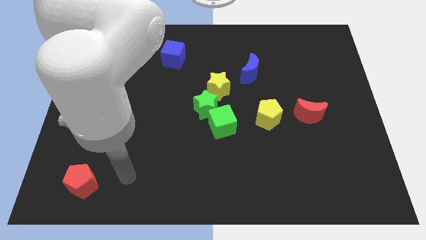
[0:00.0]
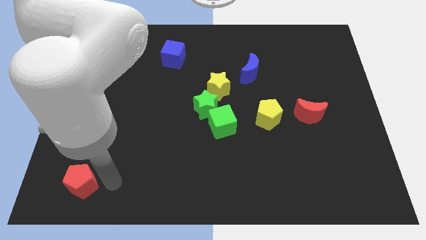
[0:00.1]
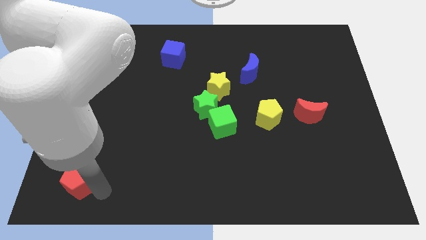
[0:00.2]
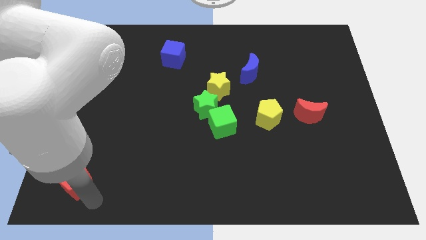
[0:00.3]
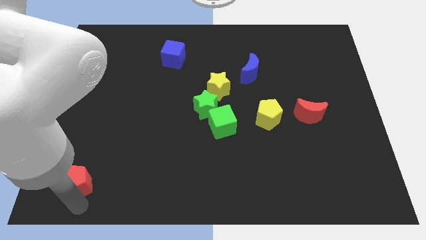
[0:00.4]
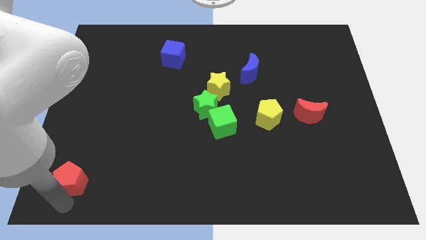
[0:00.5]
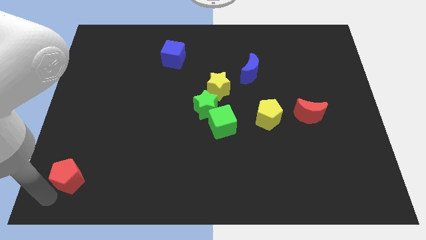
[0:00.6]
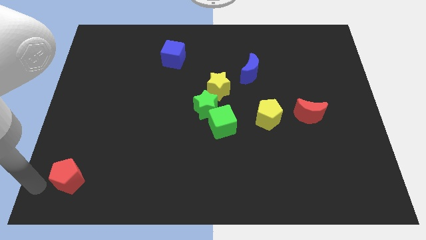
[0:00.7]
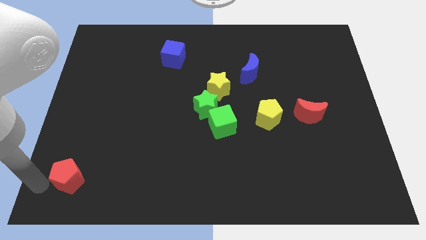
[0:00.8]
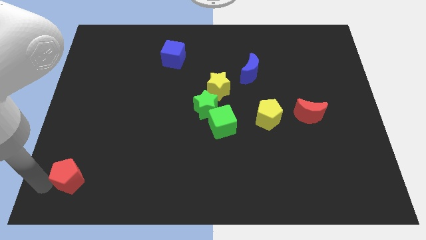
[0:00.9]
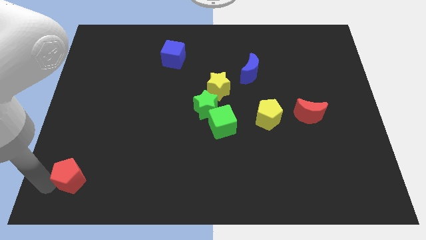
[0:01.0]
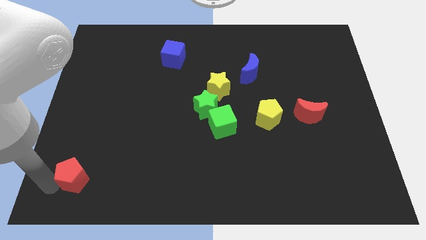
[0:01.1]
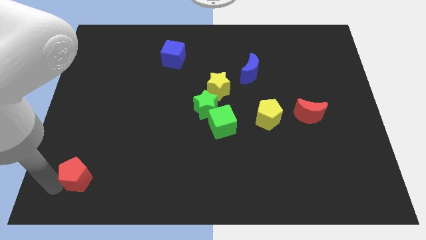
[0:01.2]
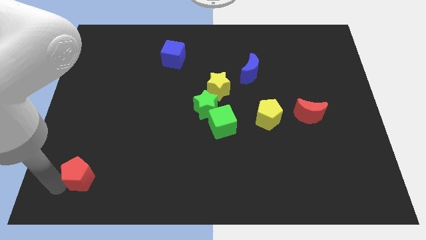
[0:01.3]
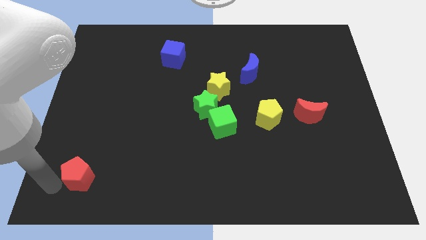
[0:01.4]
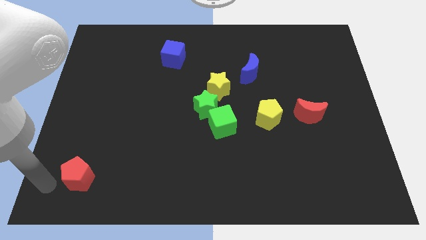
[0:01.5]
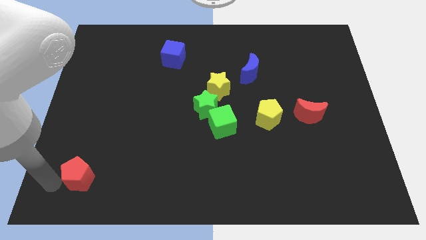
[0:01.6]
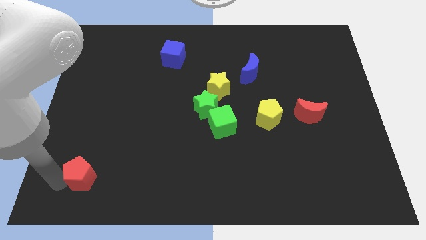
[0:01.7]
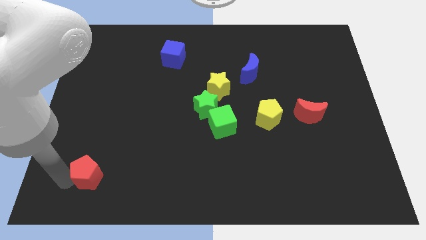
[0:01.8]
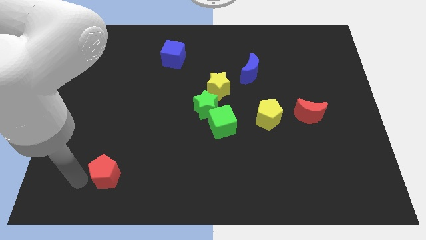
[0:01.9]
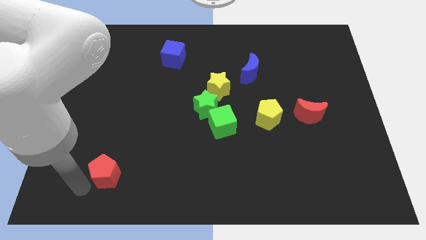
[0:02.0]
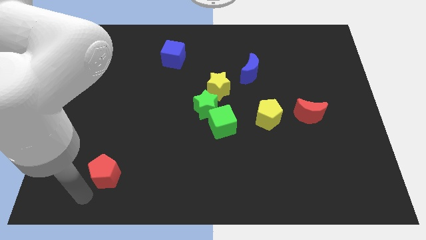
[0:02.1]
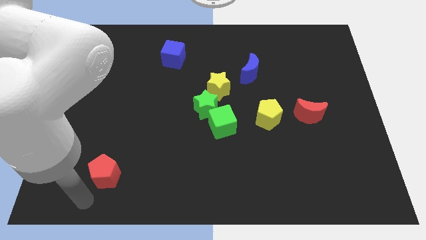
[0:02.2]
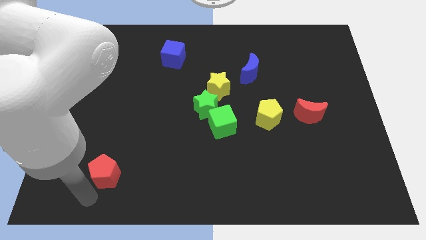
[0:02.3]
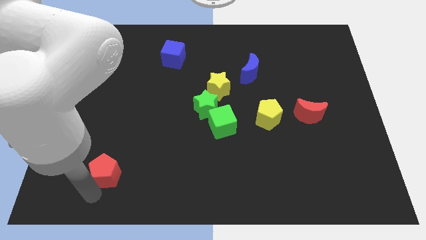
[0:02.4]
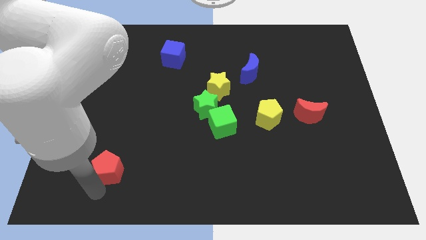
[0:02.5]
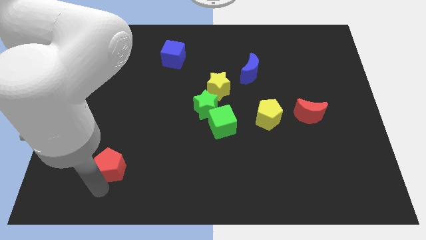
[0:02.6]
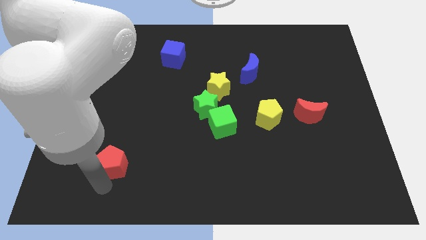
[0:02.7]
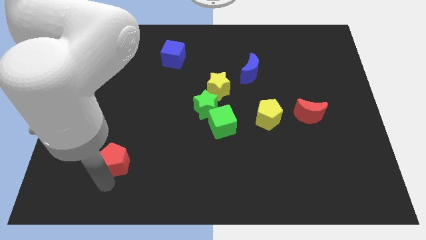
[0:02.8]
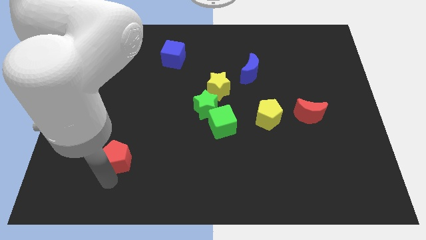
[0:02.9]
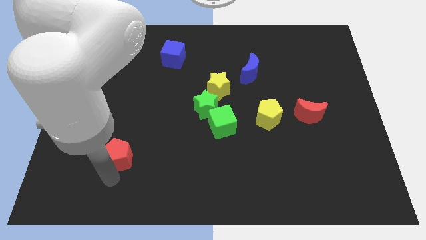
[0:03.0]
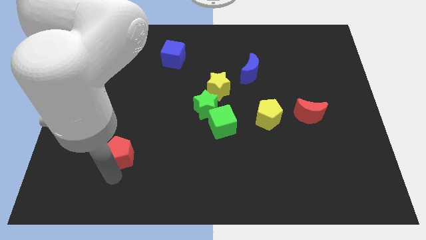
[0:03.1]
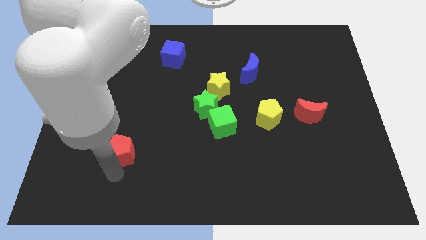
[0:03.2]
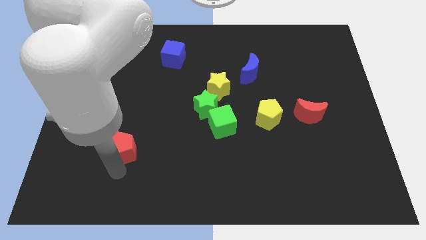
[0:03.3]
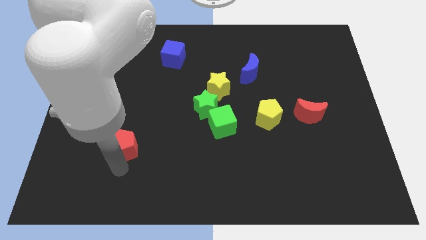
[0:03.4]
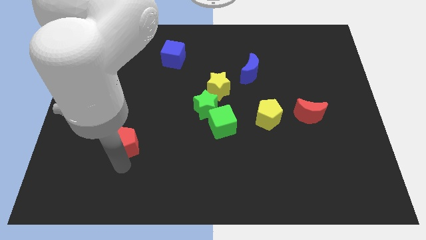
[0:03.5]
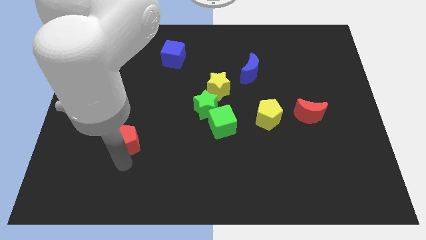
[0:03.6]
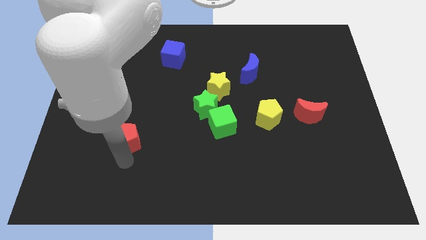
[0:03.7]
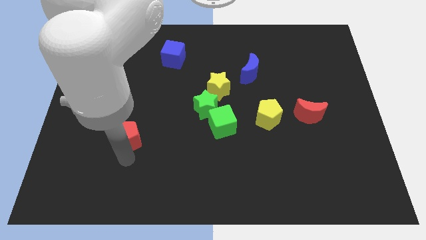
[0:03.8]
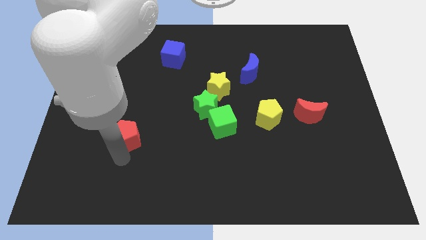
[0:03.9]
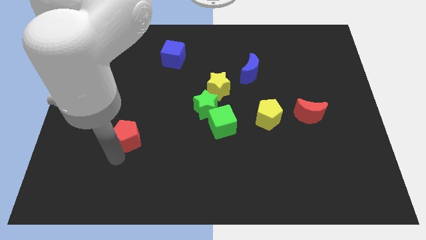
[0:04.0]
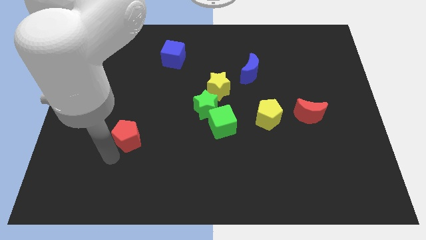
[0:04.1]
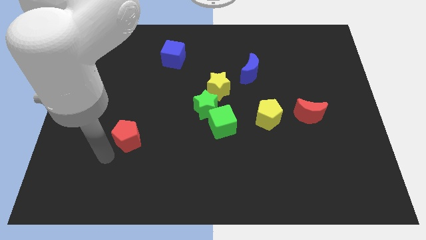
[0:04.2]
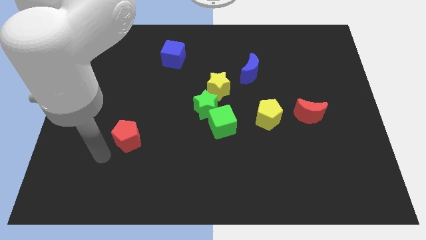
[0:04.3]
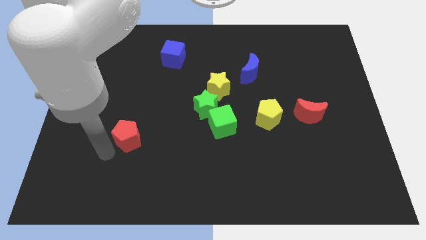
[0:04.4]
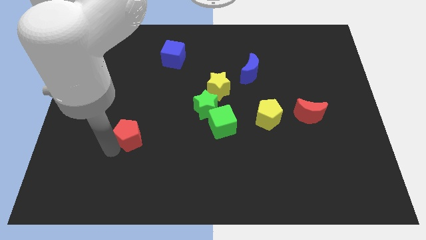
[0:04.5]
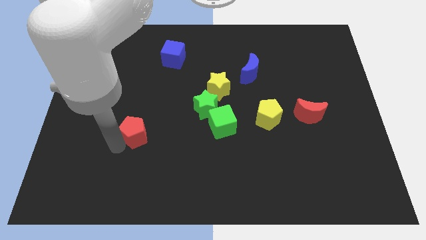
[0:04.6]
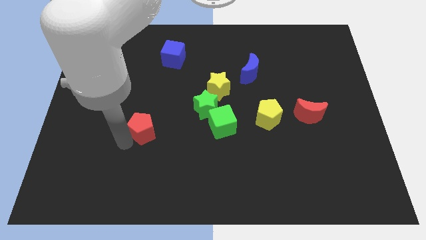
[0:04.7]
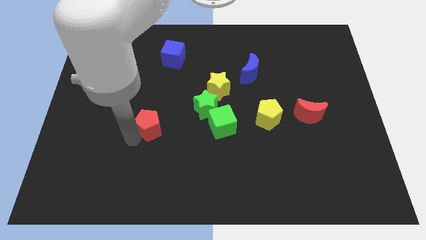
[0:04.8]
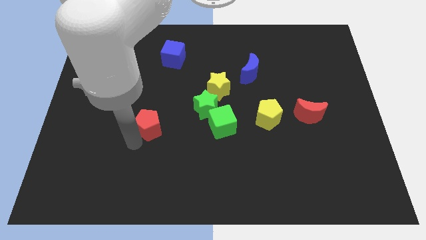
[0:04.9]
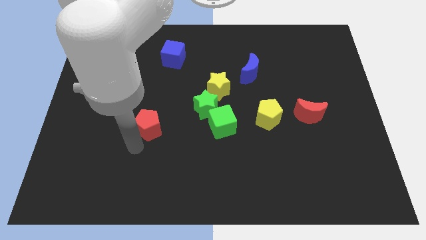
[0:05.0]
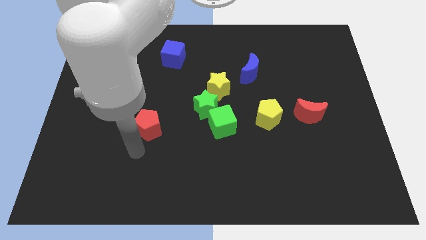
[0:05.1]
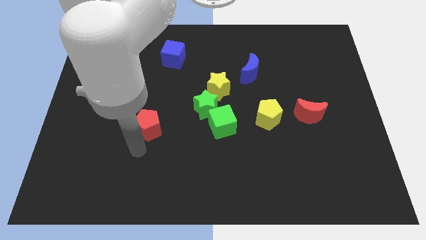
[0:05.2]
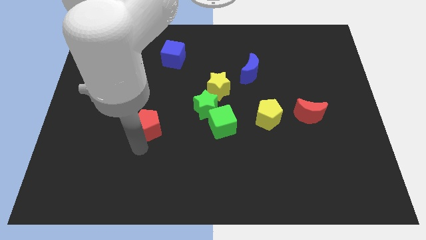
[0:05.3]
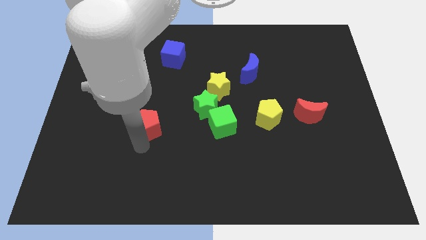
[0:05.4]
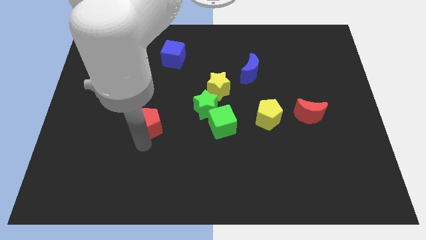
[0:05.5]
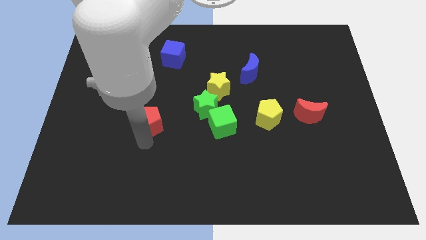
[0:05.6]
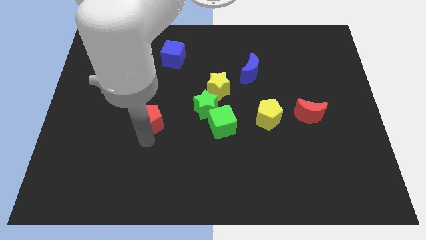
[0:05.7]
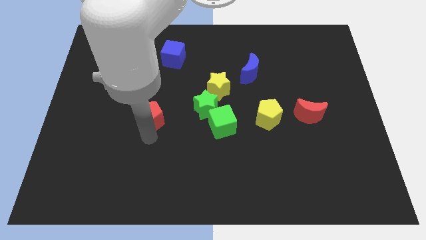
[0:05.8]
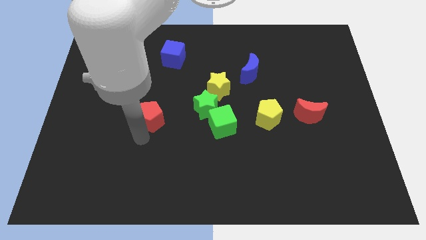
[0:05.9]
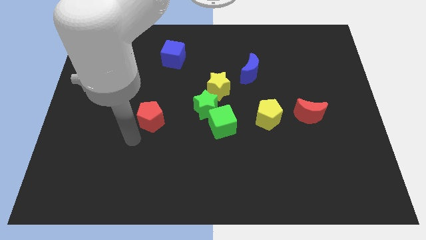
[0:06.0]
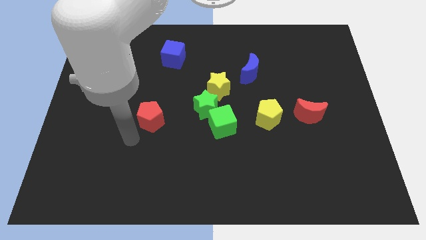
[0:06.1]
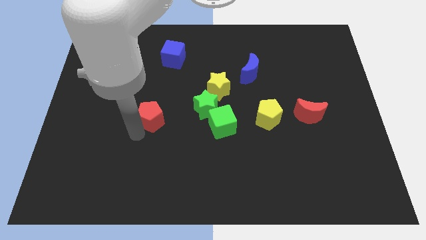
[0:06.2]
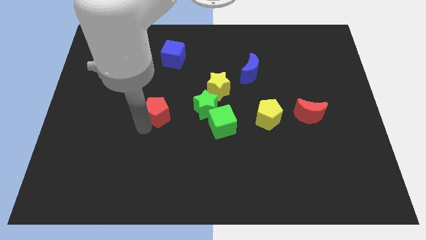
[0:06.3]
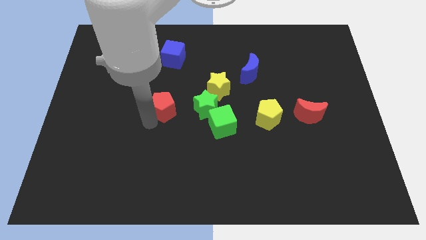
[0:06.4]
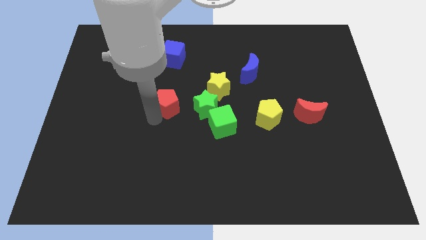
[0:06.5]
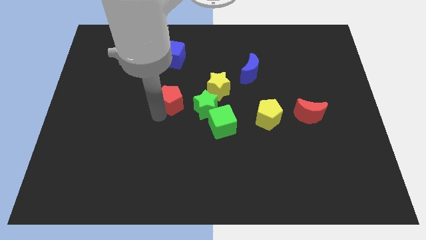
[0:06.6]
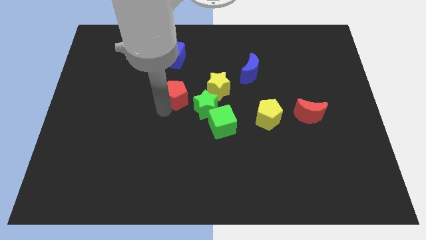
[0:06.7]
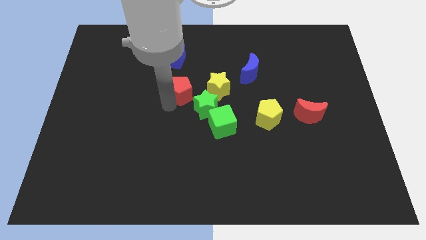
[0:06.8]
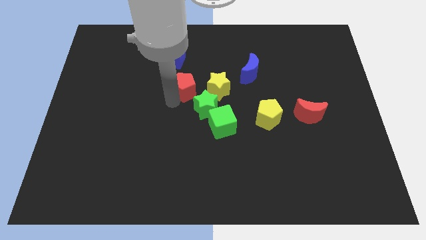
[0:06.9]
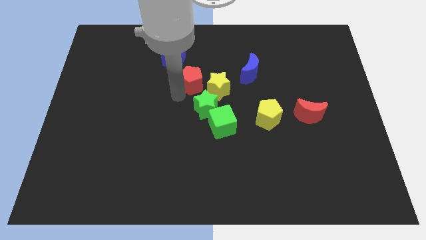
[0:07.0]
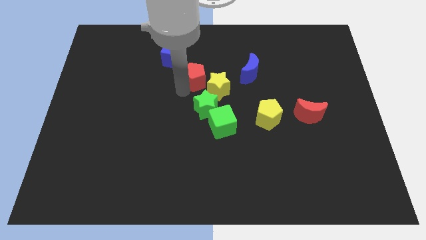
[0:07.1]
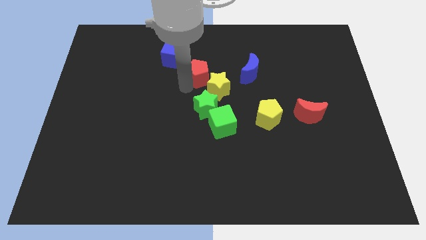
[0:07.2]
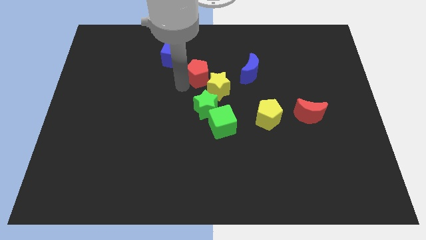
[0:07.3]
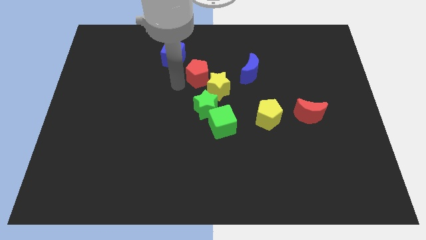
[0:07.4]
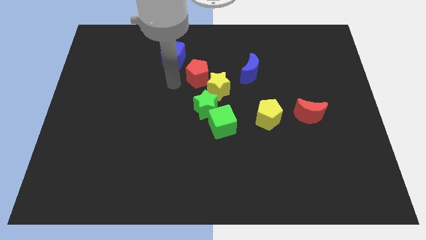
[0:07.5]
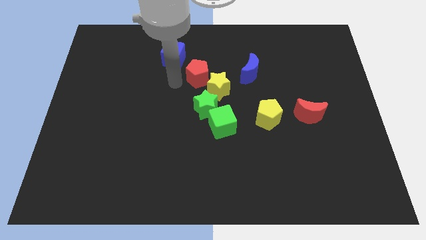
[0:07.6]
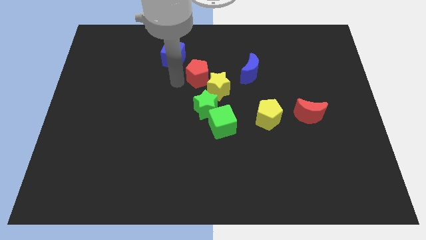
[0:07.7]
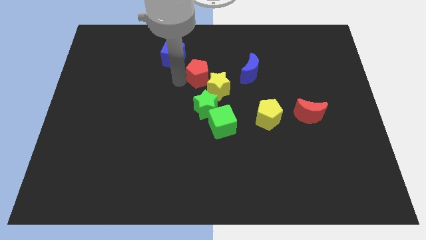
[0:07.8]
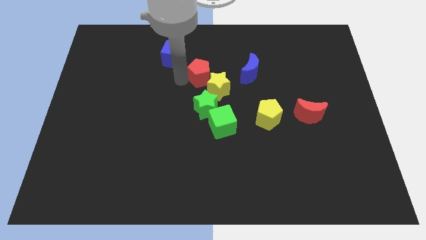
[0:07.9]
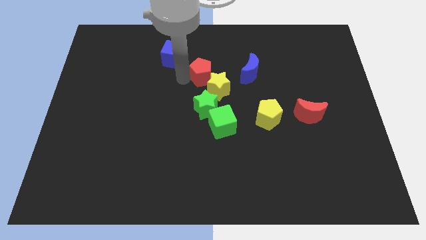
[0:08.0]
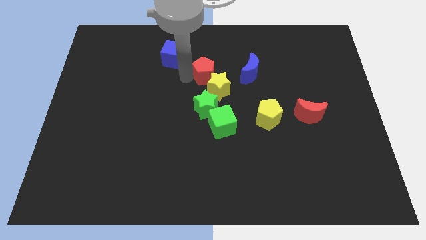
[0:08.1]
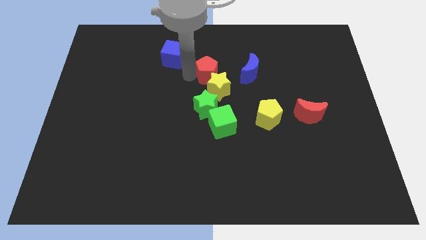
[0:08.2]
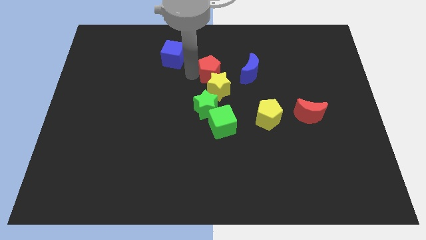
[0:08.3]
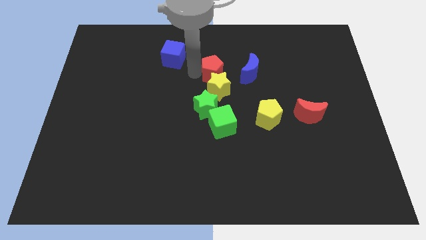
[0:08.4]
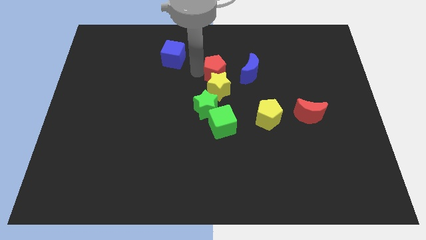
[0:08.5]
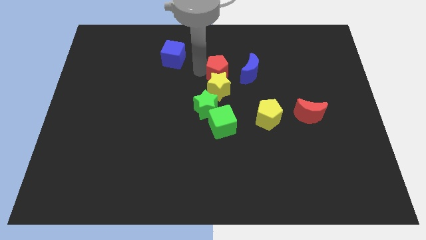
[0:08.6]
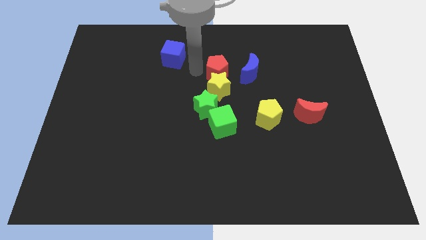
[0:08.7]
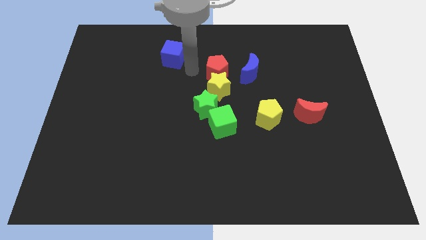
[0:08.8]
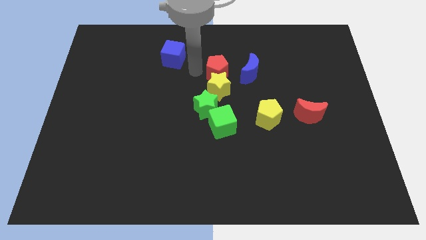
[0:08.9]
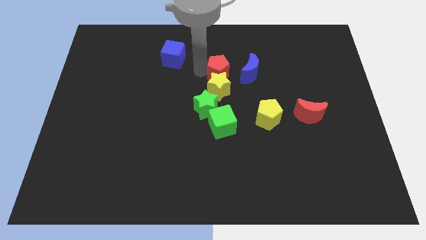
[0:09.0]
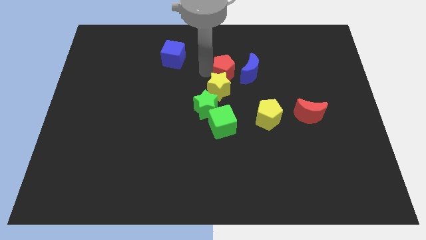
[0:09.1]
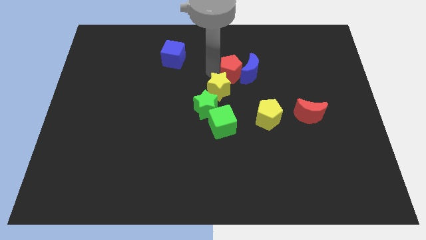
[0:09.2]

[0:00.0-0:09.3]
push the red pentagon close to the blue moon
